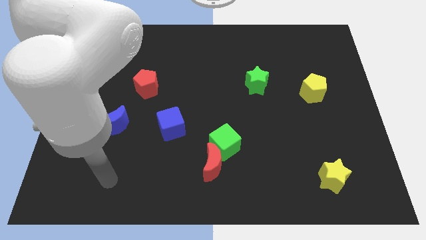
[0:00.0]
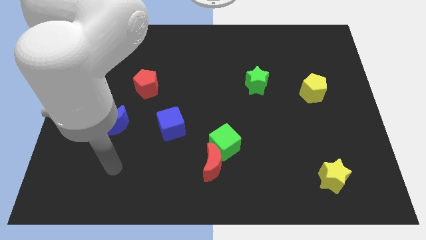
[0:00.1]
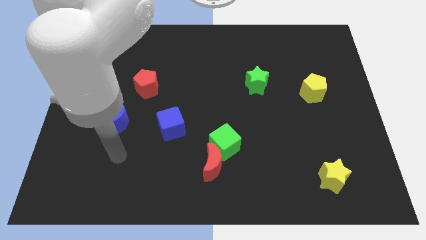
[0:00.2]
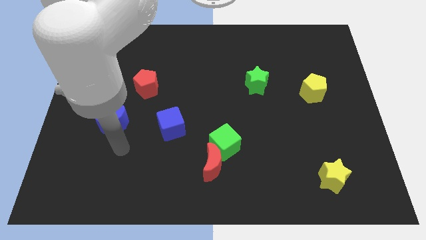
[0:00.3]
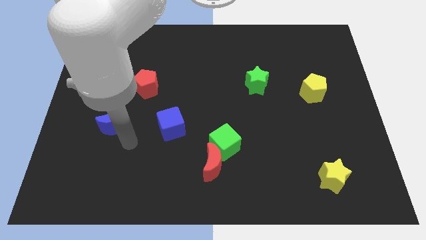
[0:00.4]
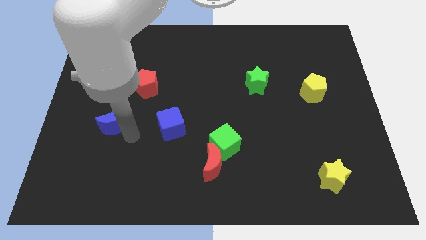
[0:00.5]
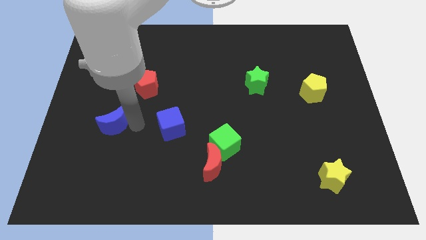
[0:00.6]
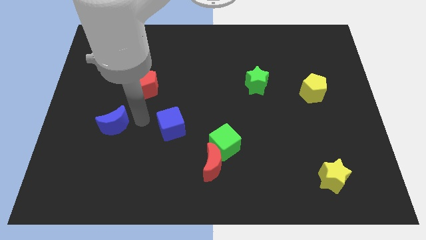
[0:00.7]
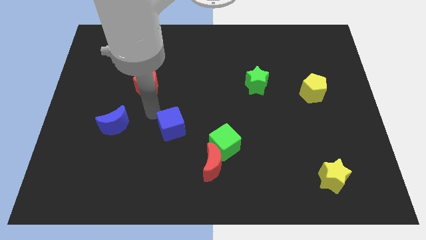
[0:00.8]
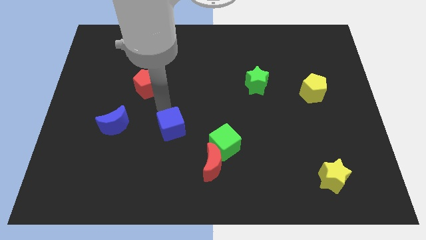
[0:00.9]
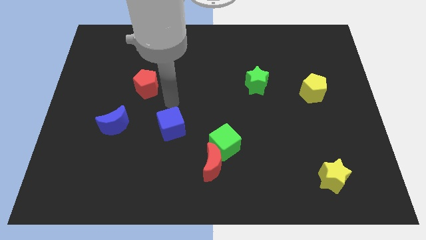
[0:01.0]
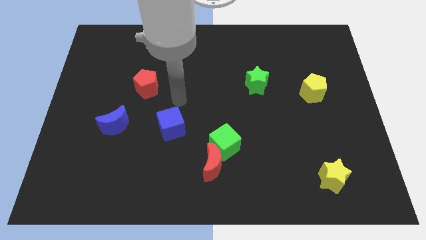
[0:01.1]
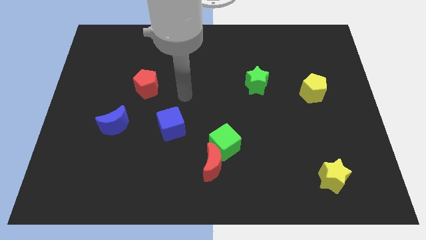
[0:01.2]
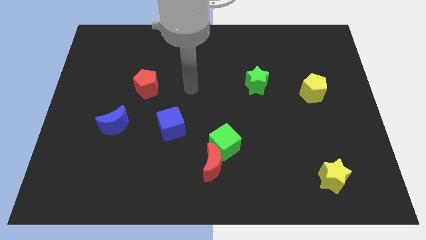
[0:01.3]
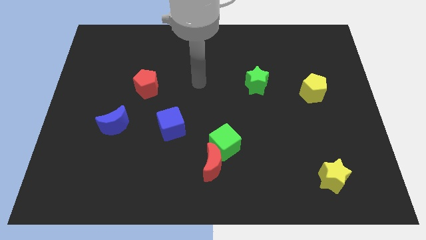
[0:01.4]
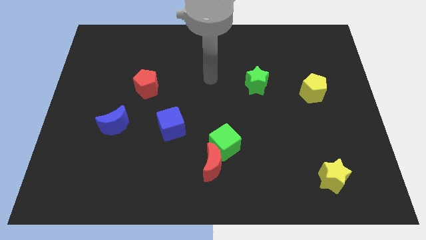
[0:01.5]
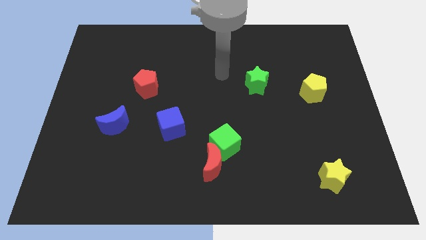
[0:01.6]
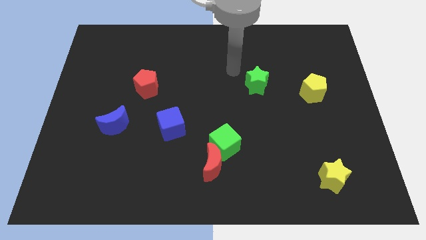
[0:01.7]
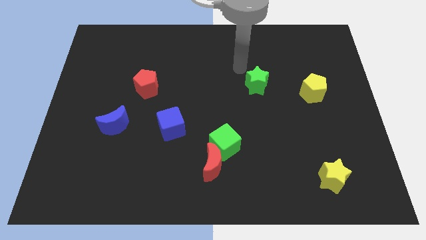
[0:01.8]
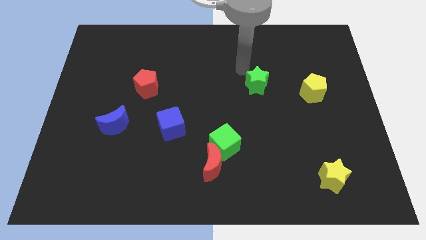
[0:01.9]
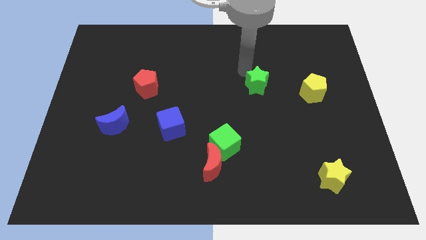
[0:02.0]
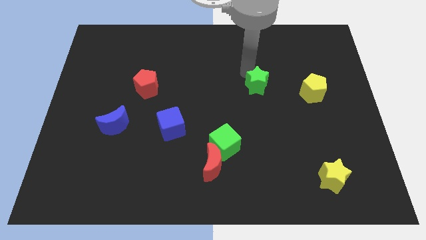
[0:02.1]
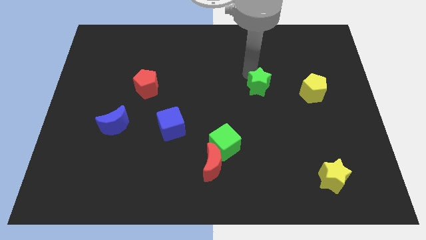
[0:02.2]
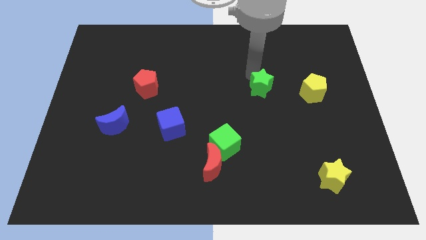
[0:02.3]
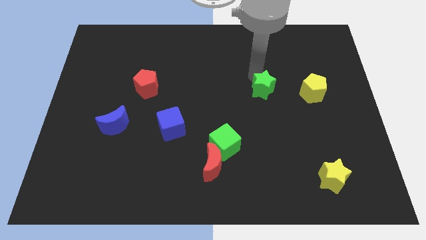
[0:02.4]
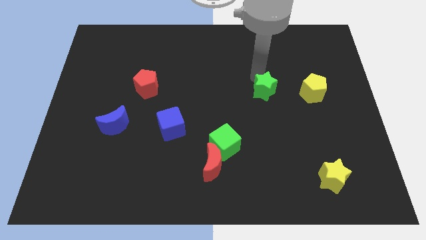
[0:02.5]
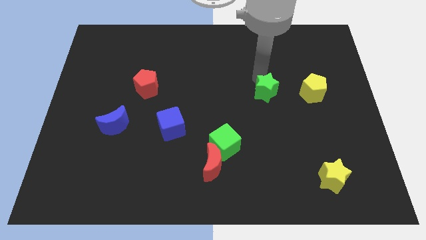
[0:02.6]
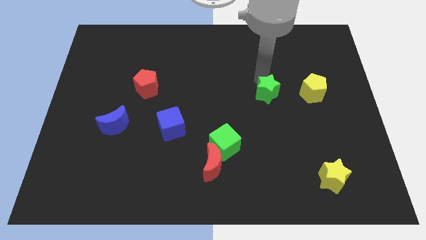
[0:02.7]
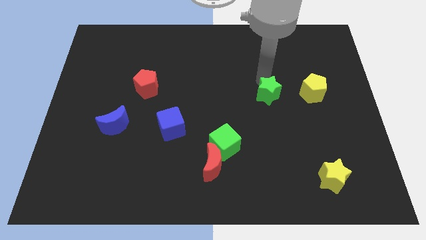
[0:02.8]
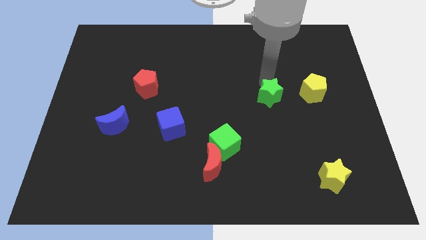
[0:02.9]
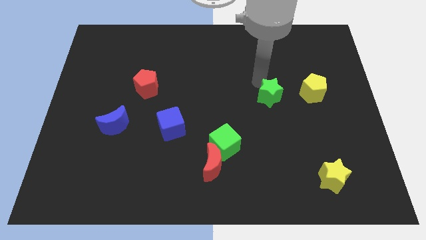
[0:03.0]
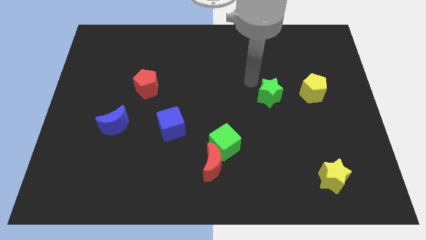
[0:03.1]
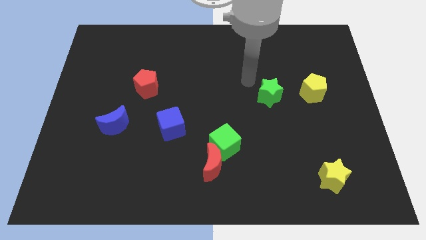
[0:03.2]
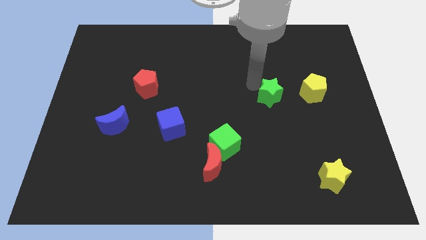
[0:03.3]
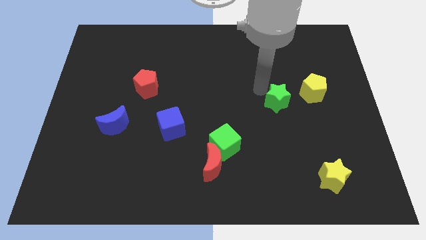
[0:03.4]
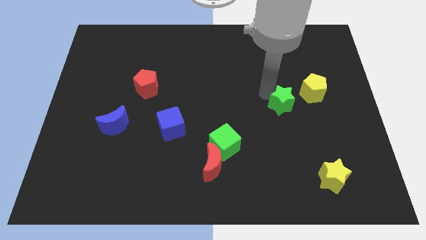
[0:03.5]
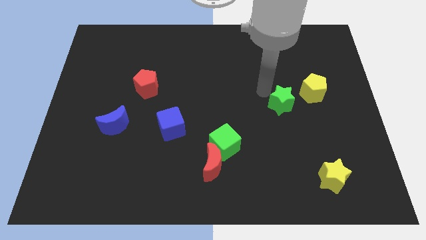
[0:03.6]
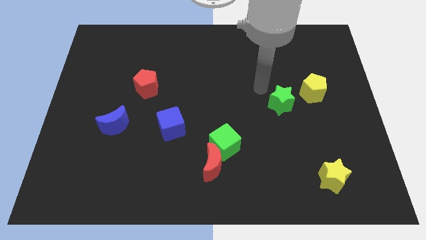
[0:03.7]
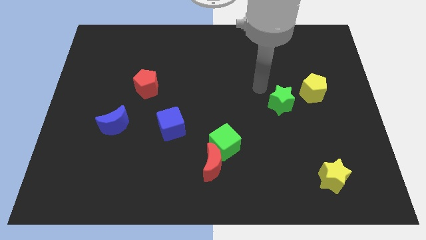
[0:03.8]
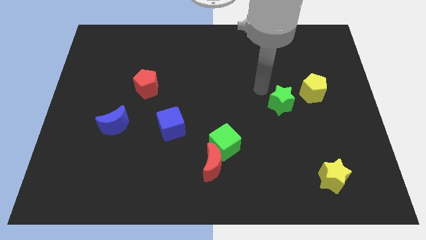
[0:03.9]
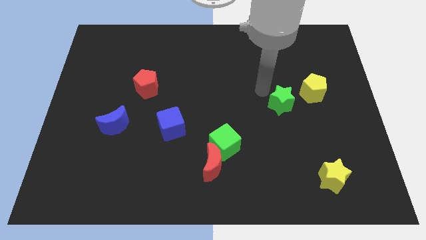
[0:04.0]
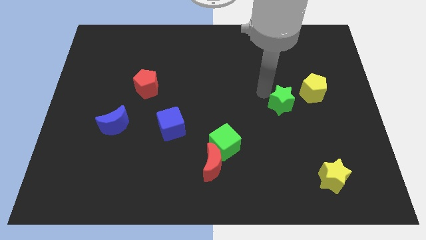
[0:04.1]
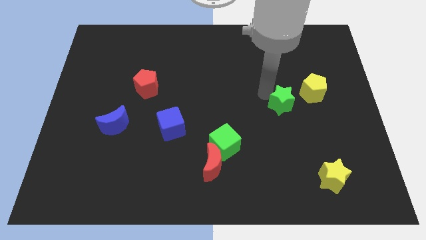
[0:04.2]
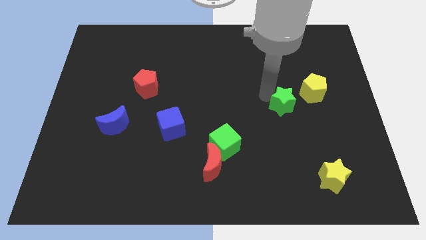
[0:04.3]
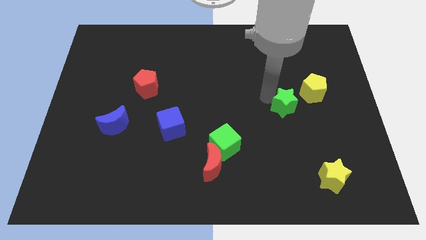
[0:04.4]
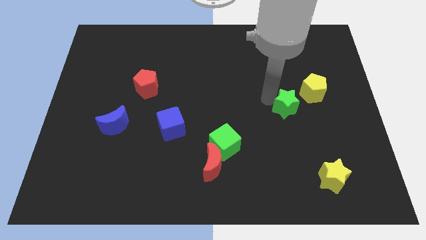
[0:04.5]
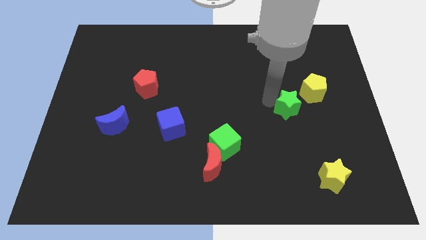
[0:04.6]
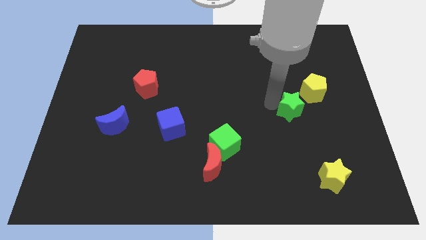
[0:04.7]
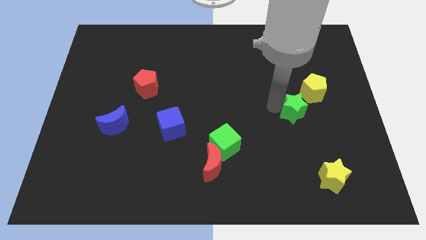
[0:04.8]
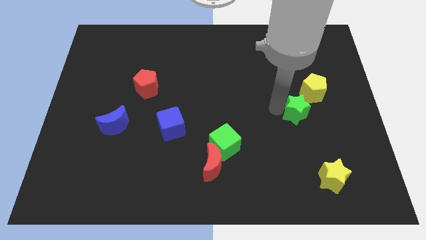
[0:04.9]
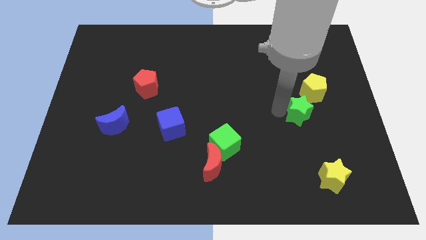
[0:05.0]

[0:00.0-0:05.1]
move the green star to the bottom side of the yellow pentagon

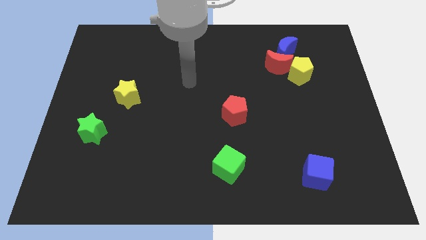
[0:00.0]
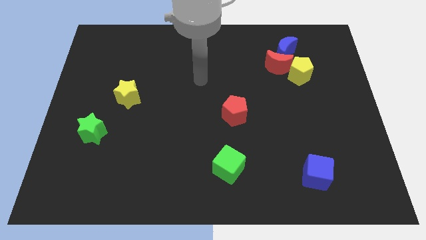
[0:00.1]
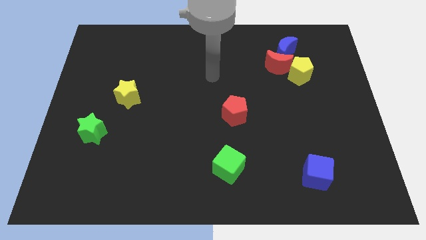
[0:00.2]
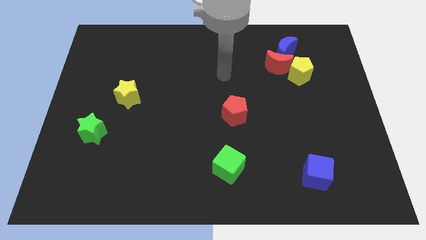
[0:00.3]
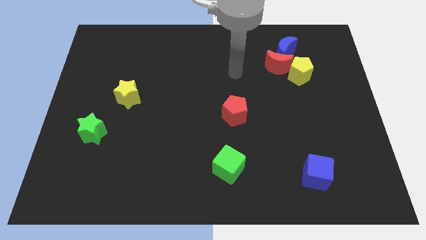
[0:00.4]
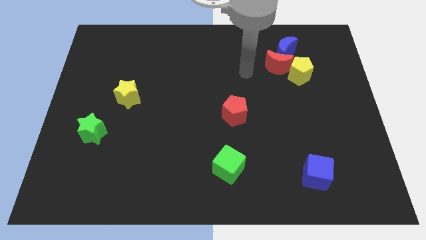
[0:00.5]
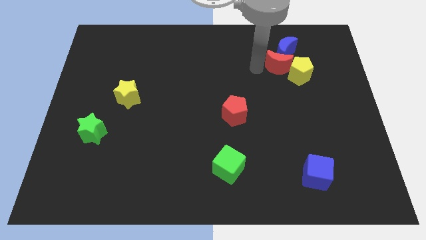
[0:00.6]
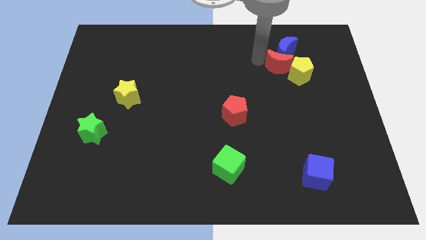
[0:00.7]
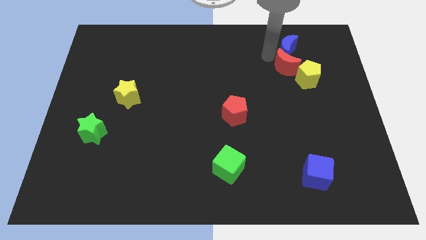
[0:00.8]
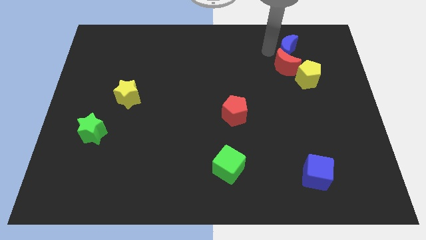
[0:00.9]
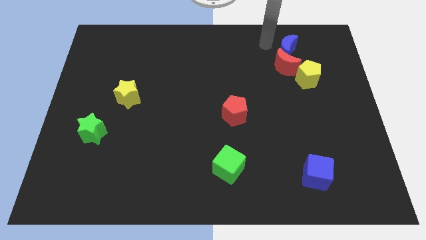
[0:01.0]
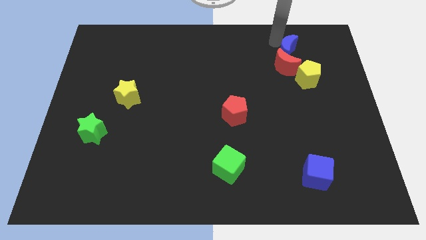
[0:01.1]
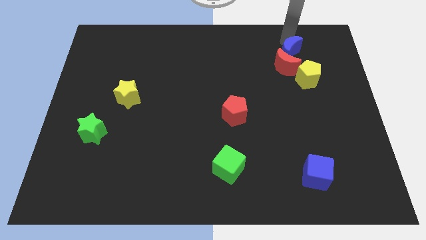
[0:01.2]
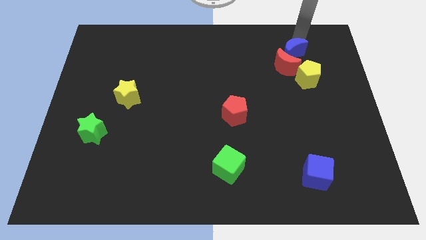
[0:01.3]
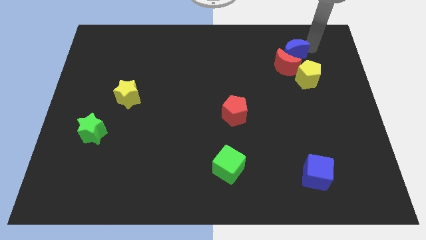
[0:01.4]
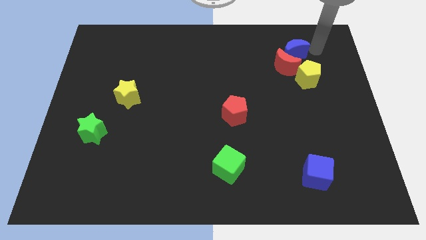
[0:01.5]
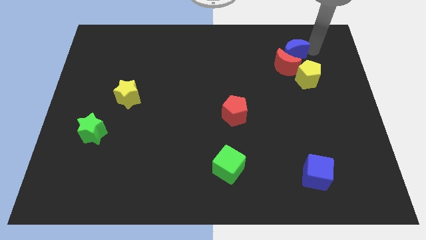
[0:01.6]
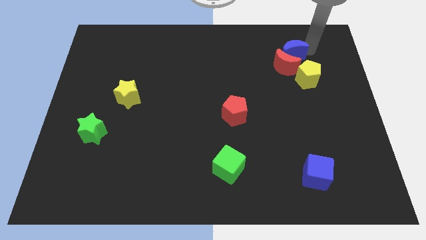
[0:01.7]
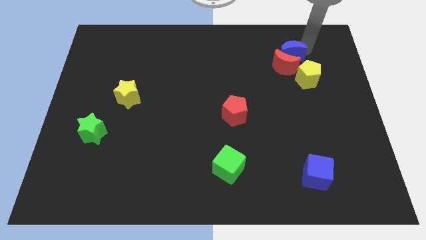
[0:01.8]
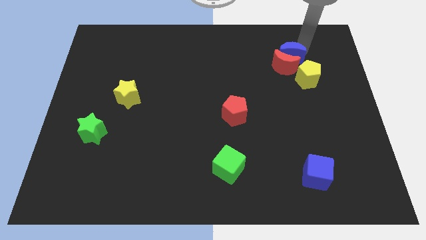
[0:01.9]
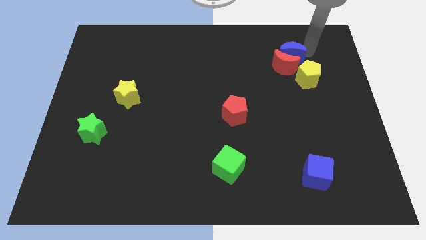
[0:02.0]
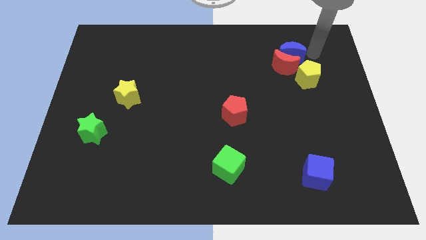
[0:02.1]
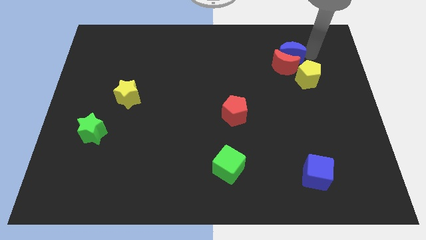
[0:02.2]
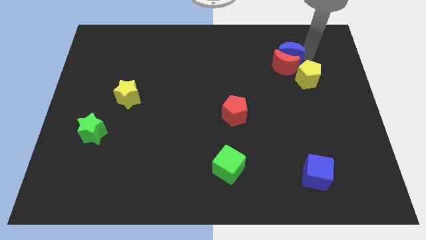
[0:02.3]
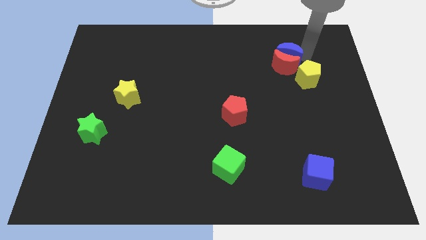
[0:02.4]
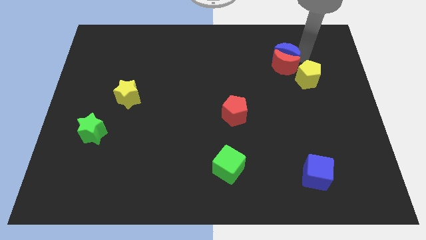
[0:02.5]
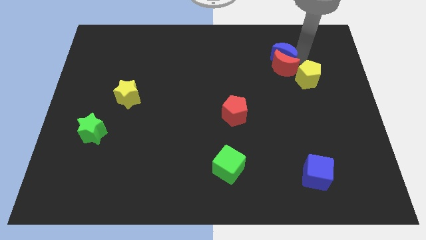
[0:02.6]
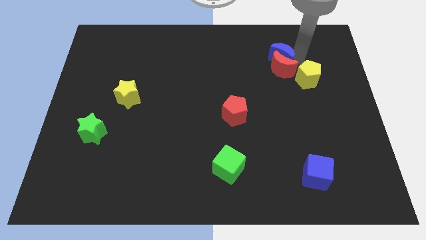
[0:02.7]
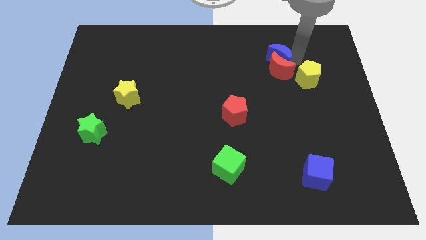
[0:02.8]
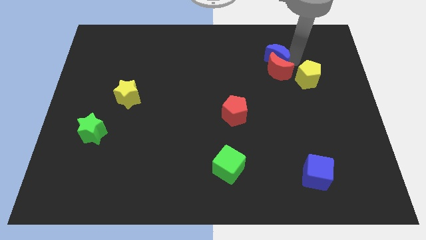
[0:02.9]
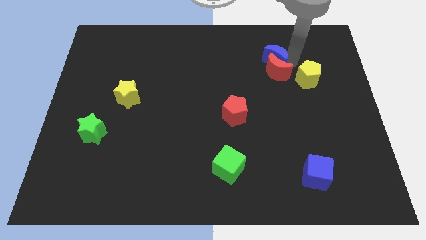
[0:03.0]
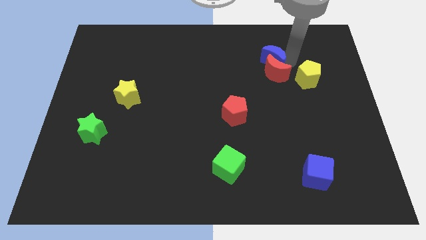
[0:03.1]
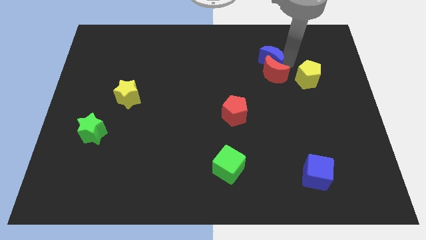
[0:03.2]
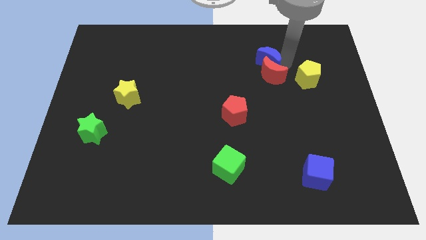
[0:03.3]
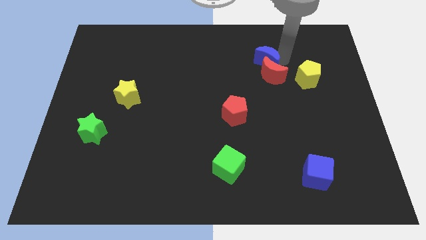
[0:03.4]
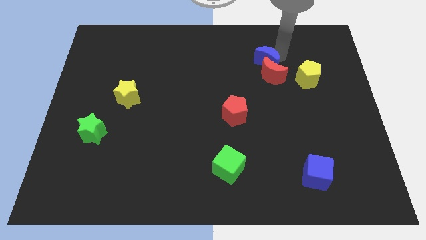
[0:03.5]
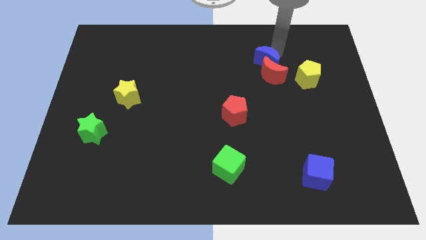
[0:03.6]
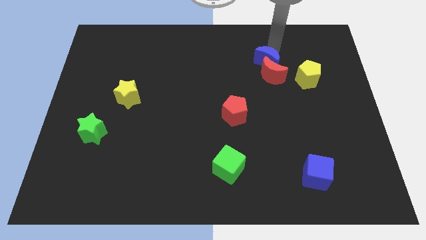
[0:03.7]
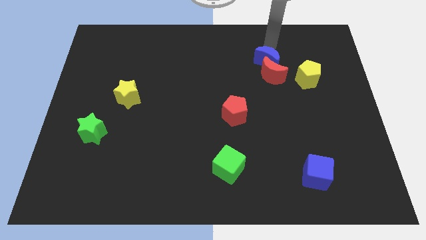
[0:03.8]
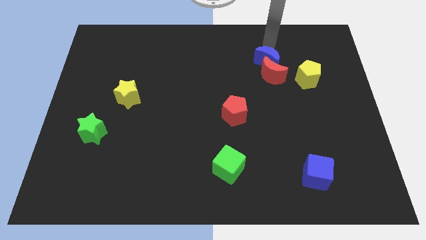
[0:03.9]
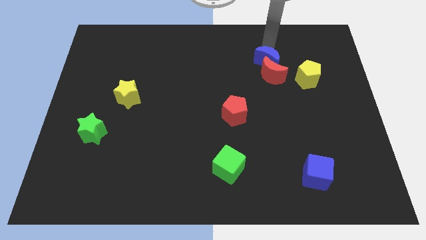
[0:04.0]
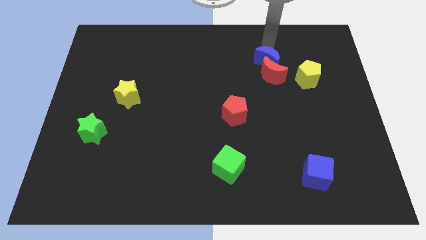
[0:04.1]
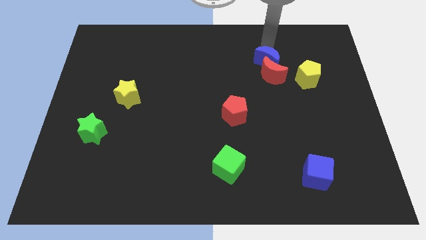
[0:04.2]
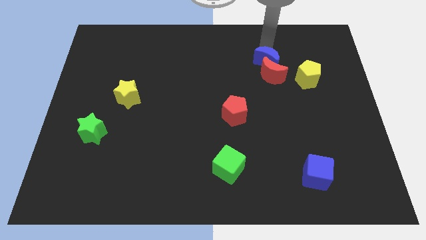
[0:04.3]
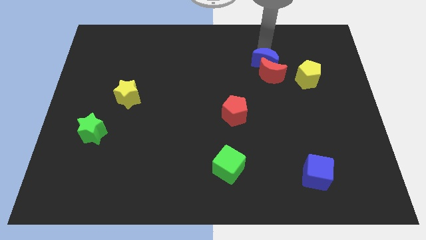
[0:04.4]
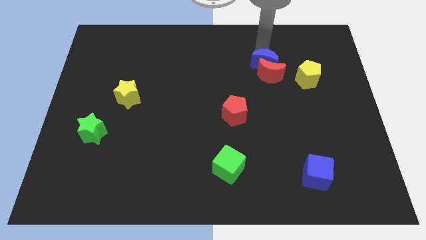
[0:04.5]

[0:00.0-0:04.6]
push the blue moon left of the yellow pentagon
